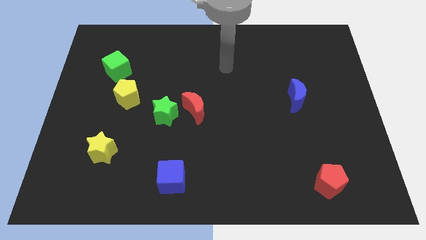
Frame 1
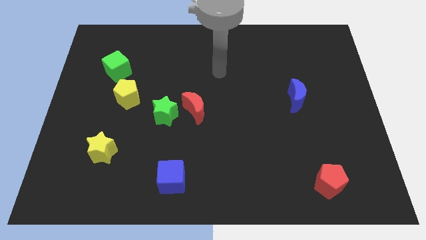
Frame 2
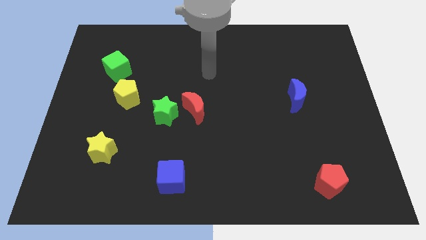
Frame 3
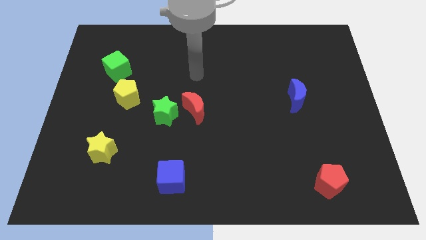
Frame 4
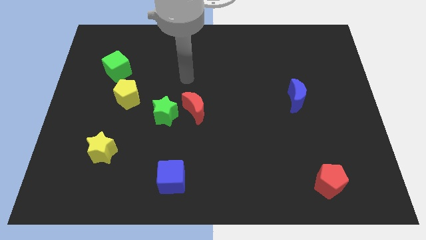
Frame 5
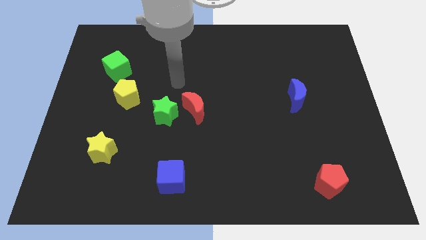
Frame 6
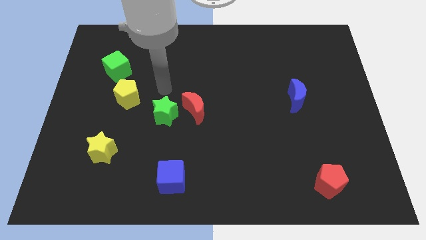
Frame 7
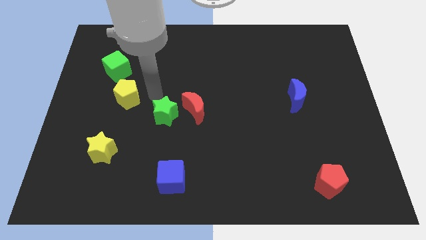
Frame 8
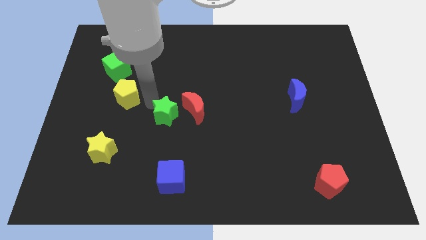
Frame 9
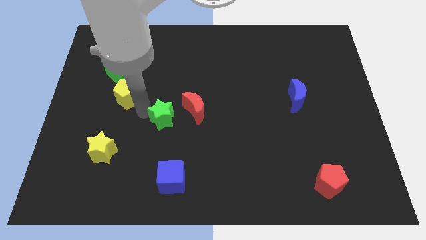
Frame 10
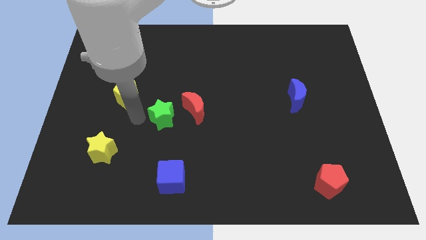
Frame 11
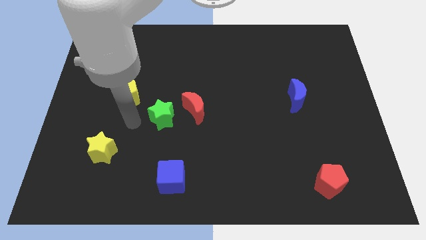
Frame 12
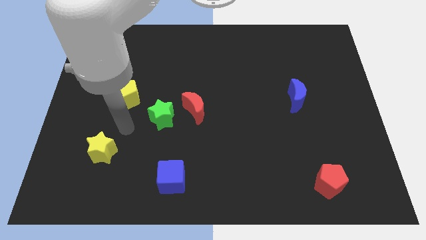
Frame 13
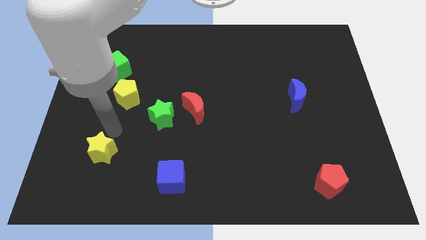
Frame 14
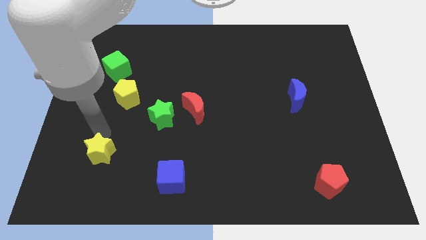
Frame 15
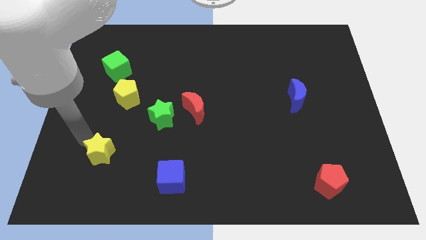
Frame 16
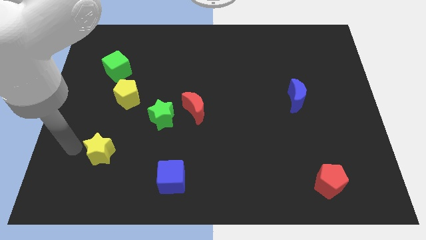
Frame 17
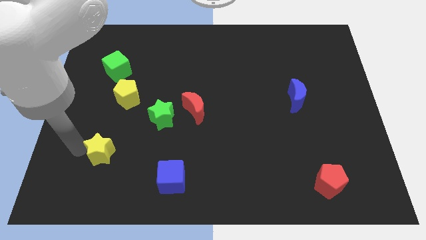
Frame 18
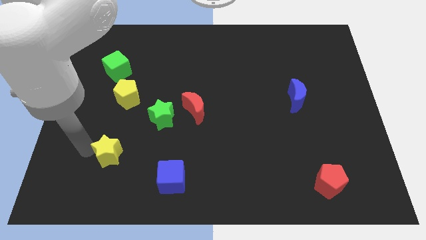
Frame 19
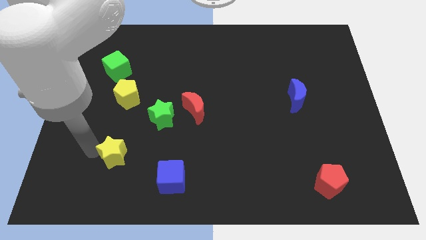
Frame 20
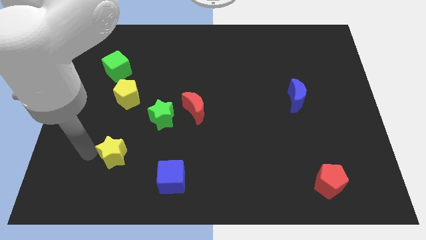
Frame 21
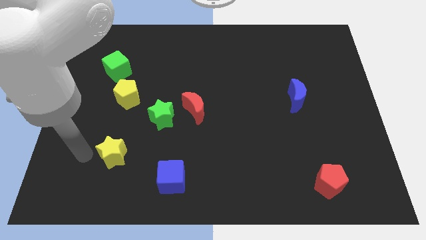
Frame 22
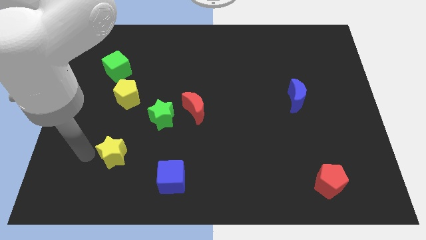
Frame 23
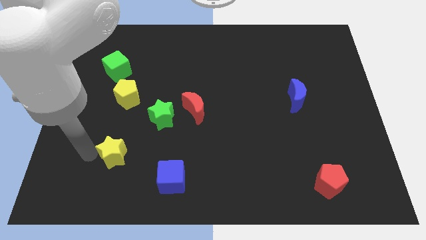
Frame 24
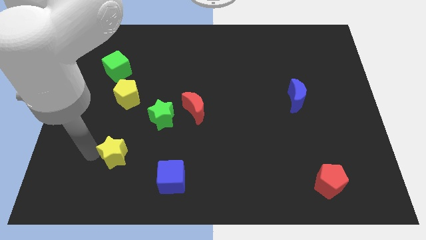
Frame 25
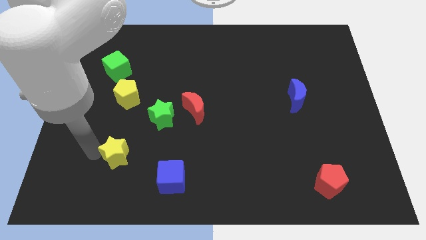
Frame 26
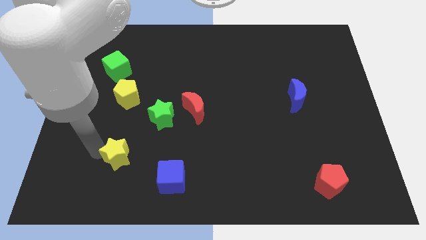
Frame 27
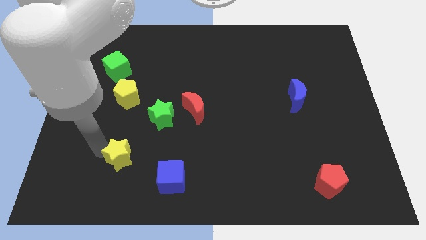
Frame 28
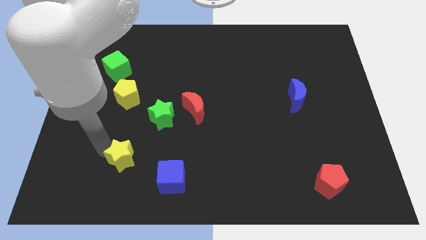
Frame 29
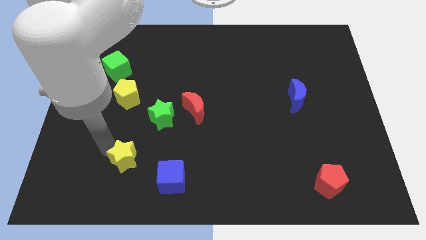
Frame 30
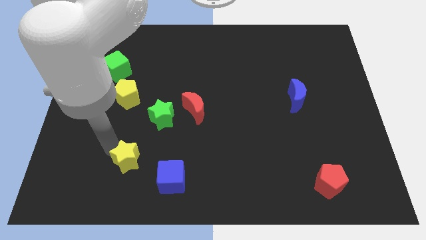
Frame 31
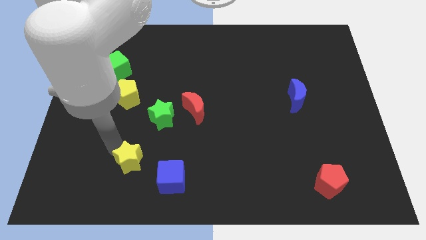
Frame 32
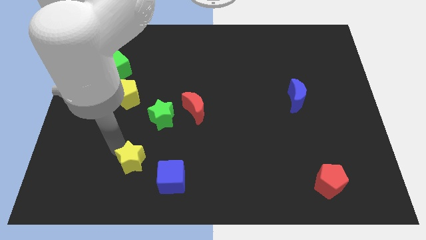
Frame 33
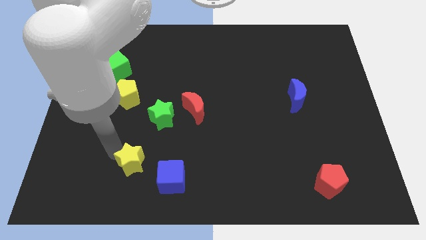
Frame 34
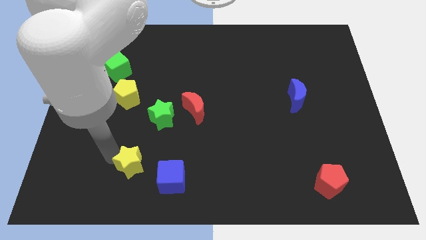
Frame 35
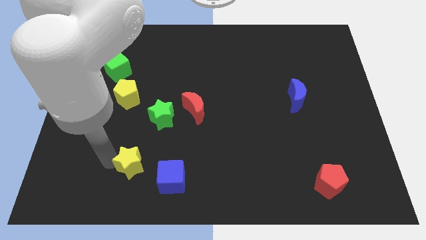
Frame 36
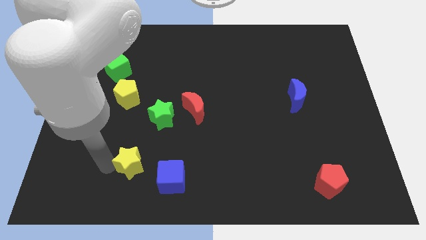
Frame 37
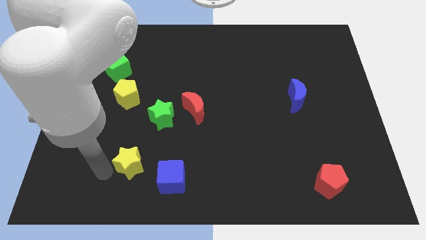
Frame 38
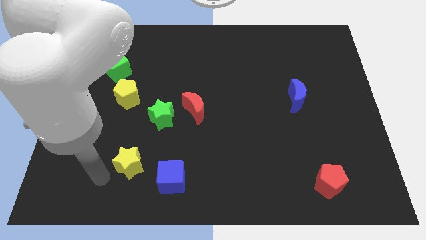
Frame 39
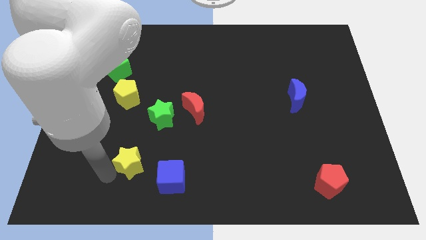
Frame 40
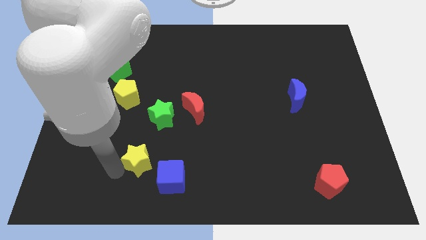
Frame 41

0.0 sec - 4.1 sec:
push the yellow star to the right a little

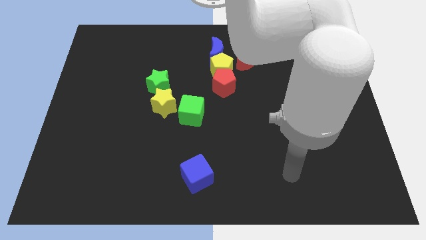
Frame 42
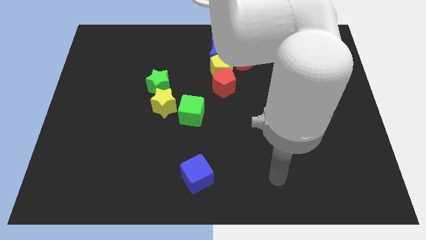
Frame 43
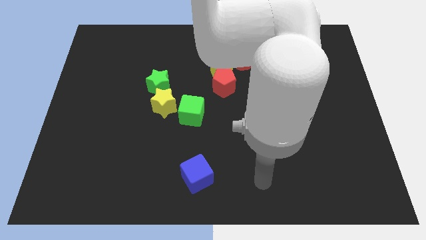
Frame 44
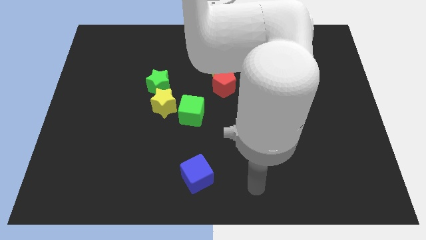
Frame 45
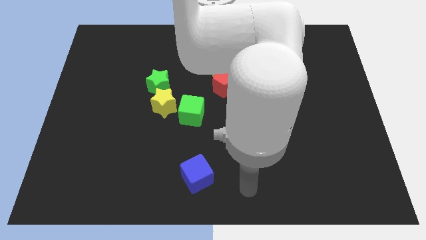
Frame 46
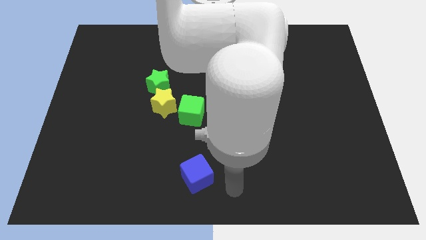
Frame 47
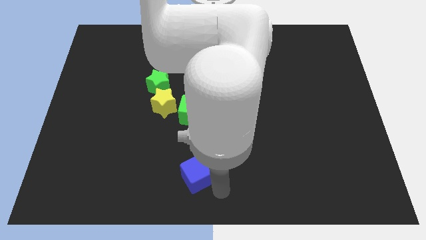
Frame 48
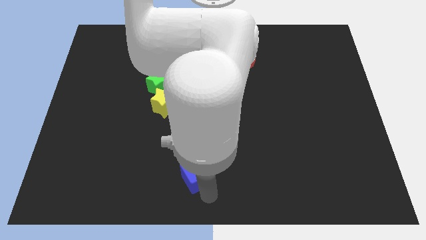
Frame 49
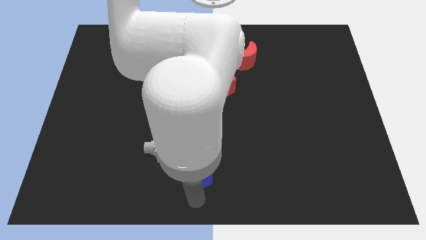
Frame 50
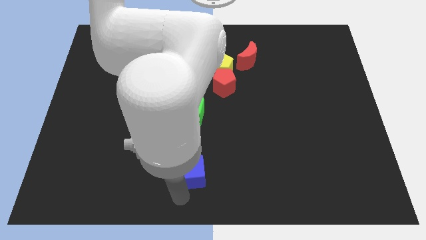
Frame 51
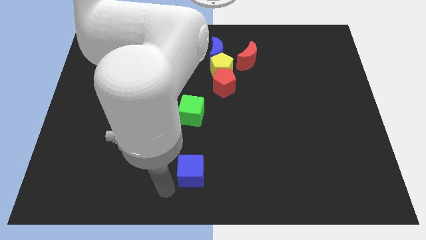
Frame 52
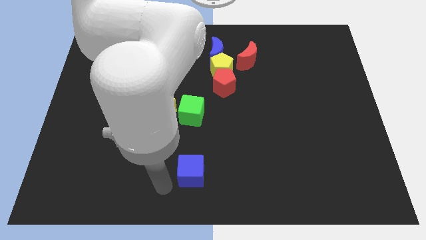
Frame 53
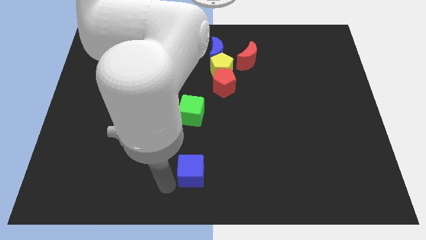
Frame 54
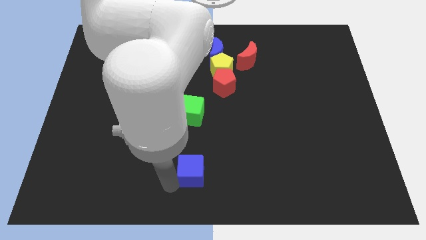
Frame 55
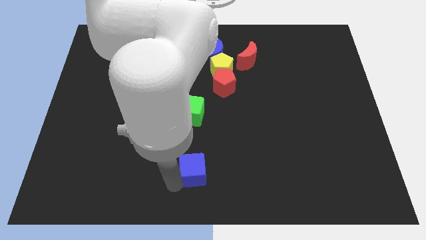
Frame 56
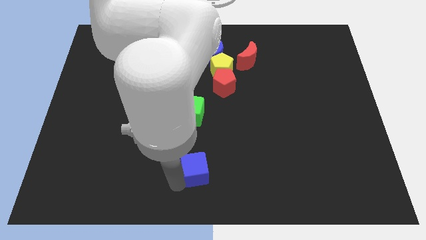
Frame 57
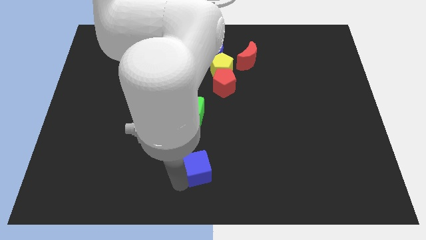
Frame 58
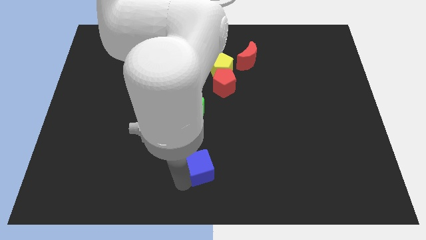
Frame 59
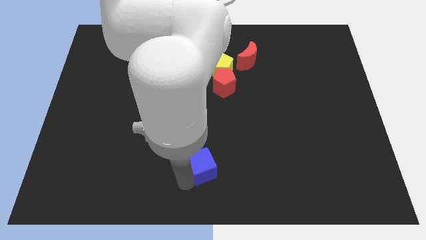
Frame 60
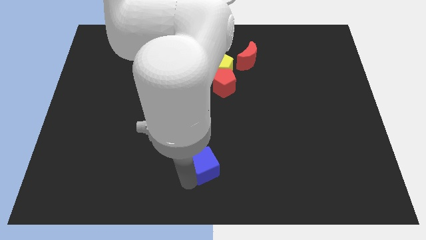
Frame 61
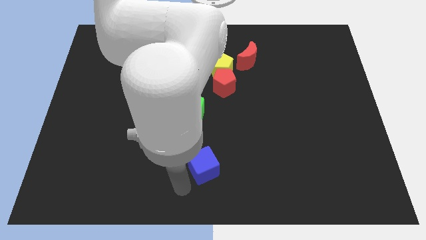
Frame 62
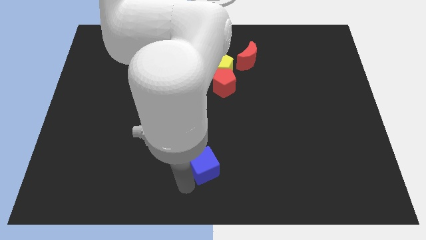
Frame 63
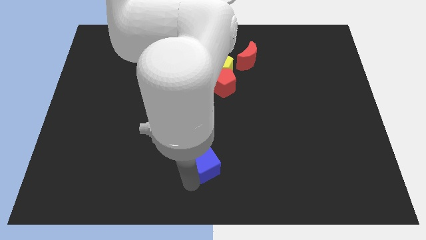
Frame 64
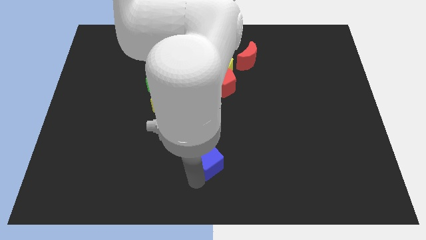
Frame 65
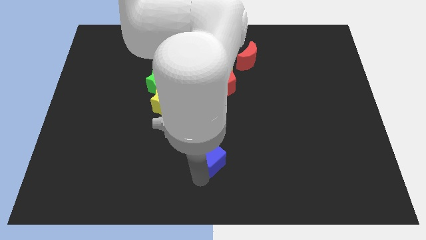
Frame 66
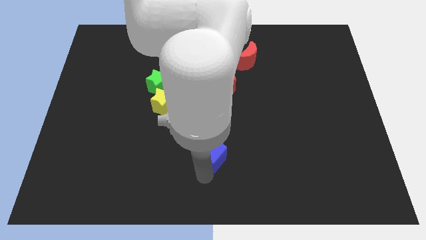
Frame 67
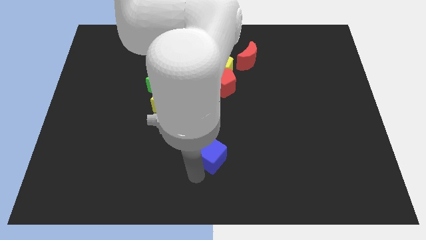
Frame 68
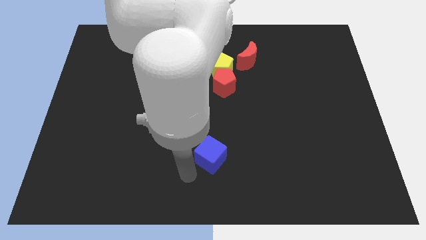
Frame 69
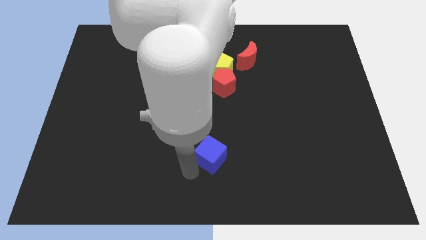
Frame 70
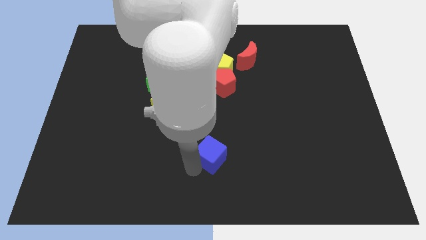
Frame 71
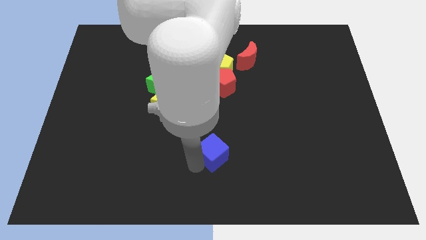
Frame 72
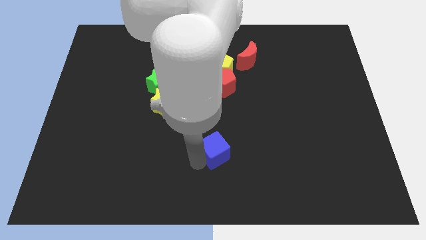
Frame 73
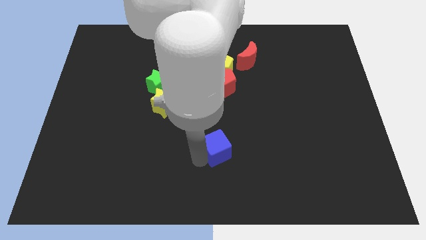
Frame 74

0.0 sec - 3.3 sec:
slightly move the blue cube upwards and then right

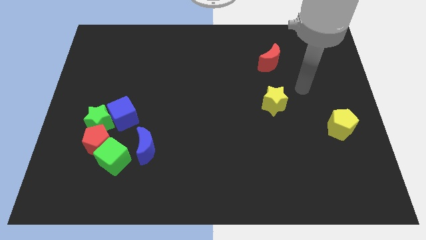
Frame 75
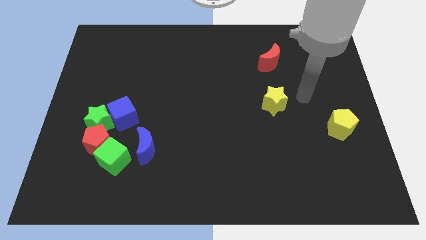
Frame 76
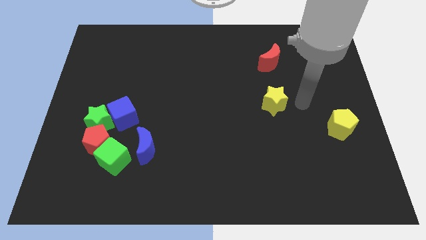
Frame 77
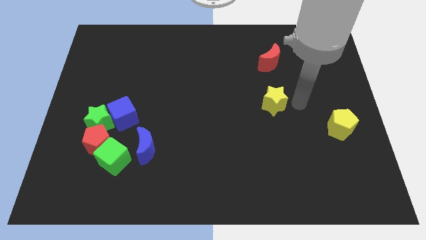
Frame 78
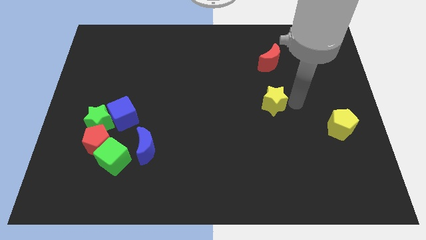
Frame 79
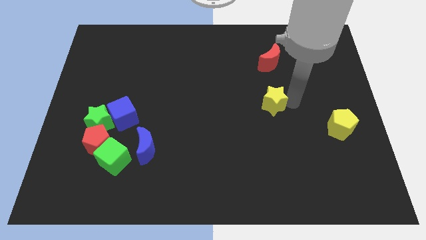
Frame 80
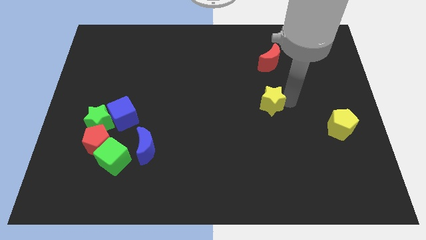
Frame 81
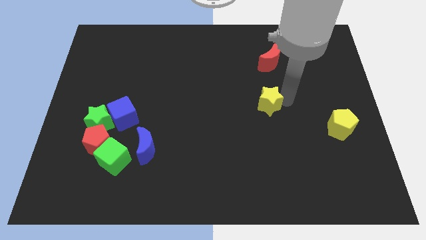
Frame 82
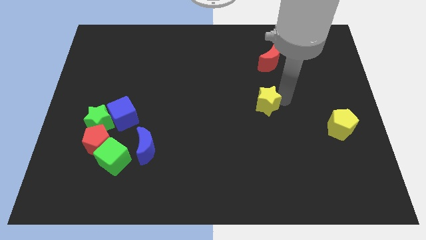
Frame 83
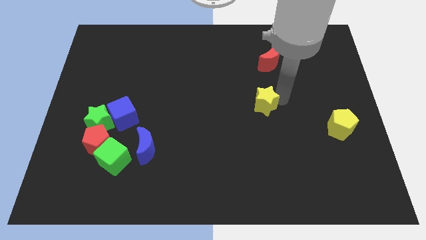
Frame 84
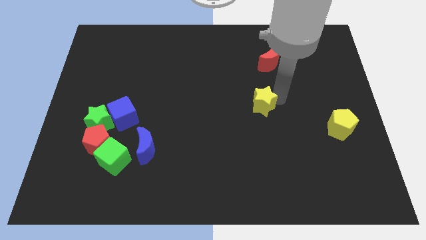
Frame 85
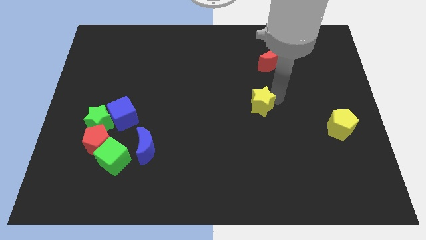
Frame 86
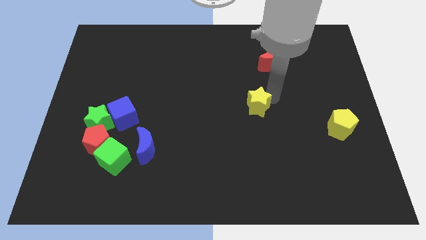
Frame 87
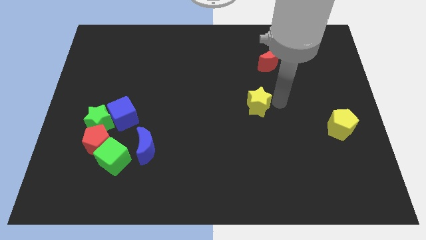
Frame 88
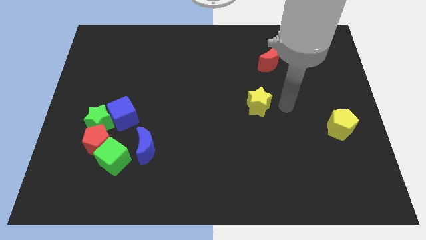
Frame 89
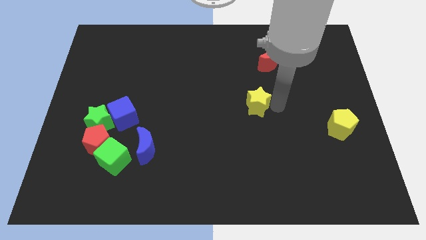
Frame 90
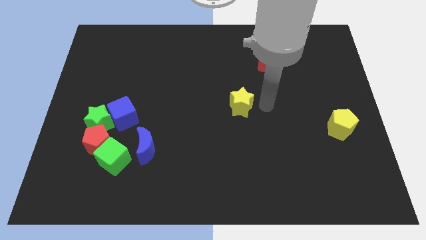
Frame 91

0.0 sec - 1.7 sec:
slide the yellow star a little to the left
